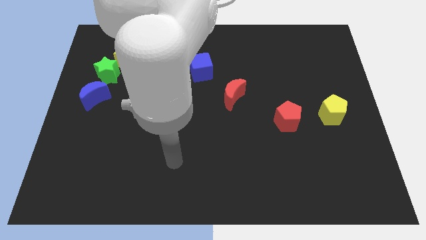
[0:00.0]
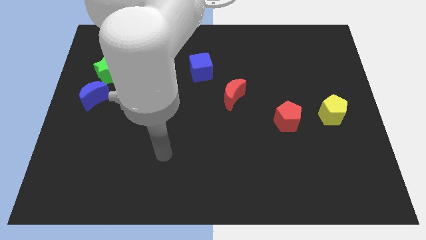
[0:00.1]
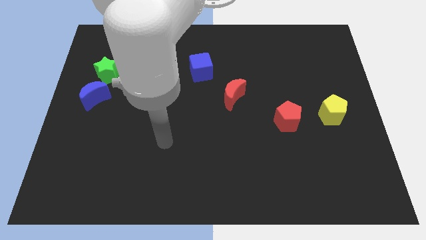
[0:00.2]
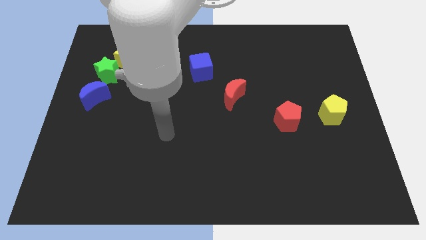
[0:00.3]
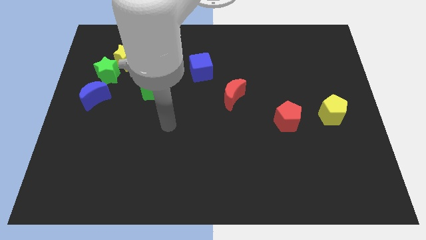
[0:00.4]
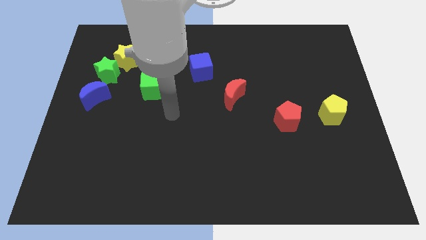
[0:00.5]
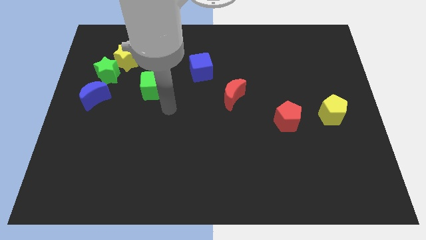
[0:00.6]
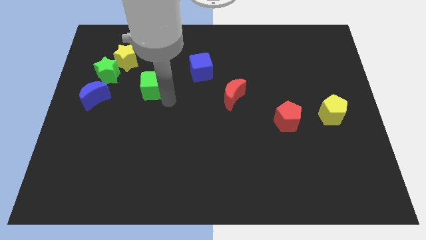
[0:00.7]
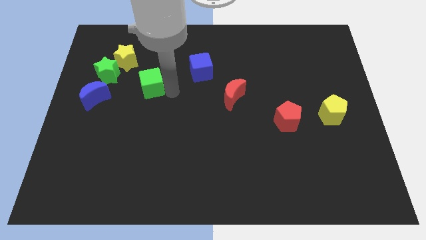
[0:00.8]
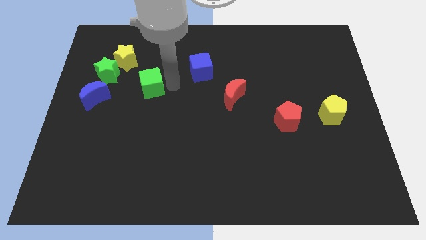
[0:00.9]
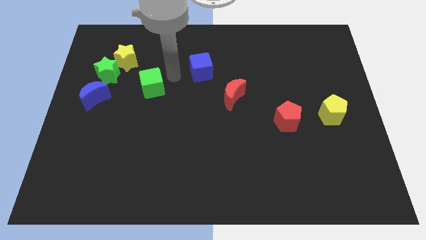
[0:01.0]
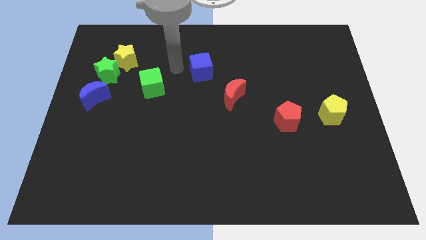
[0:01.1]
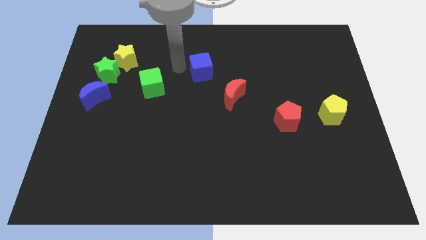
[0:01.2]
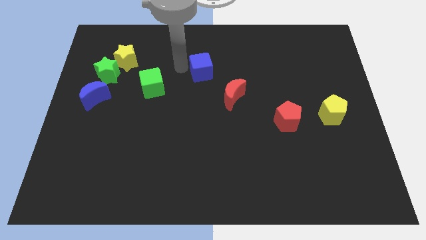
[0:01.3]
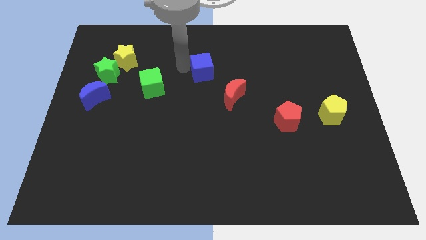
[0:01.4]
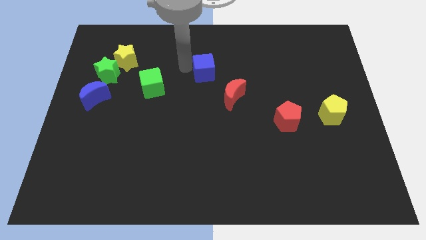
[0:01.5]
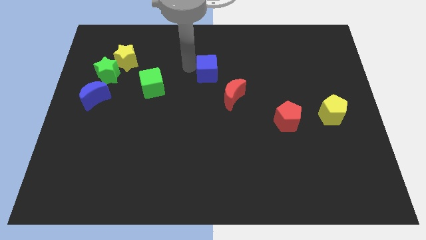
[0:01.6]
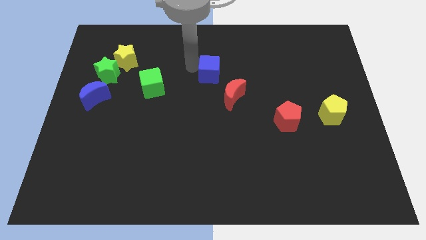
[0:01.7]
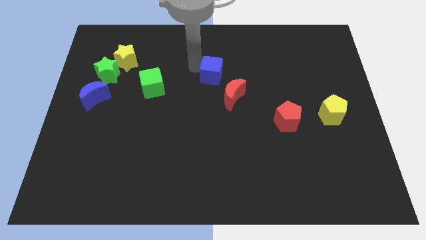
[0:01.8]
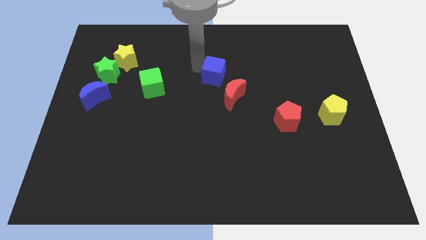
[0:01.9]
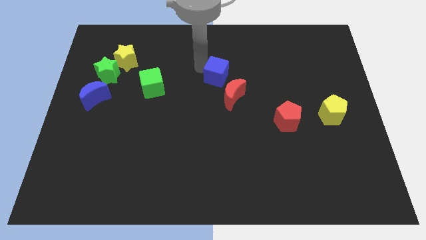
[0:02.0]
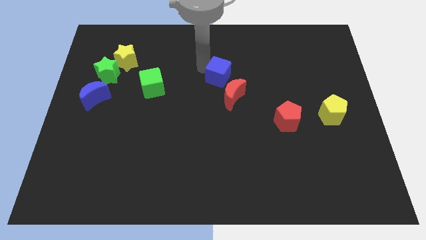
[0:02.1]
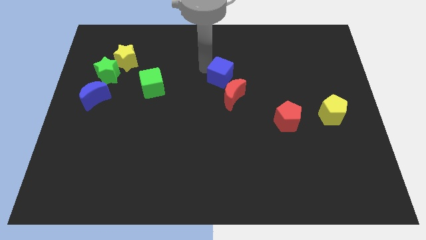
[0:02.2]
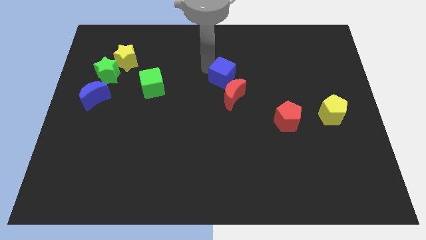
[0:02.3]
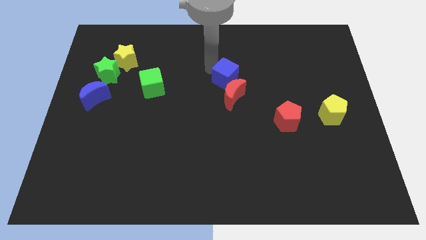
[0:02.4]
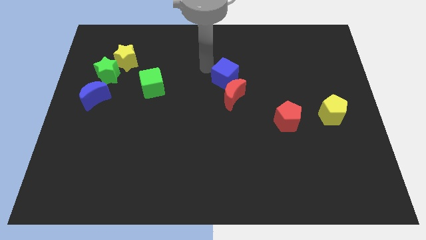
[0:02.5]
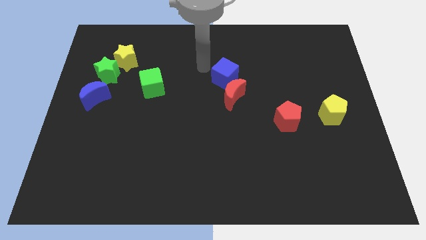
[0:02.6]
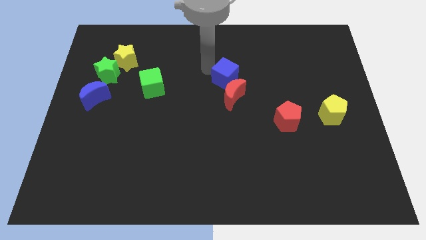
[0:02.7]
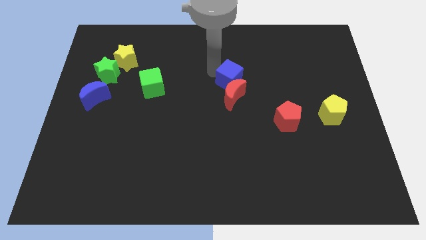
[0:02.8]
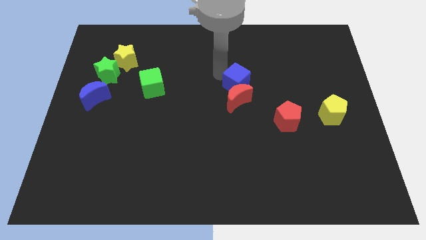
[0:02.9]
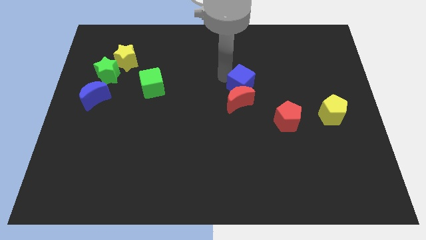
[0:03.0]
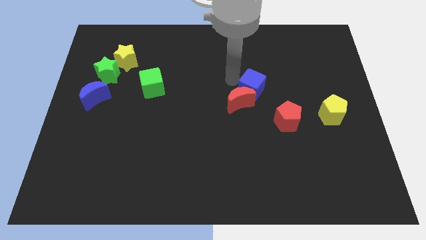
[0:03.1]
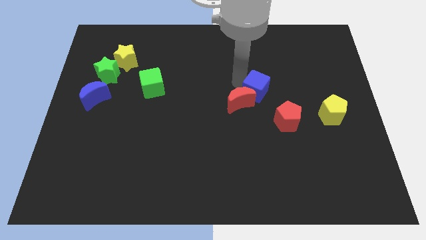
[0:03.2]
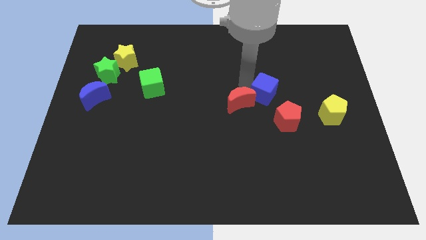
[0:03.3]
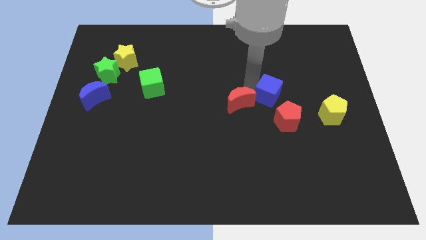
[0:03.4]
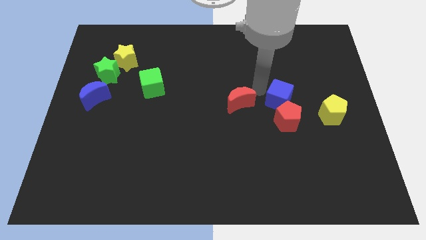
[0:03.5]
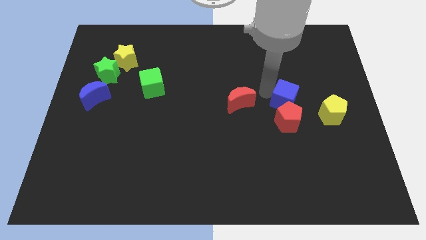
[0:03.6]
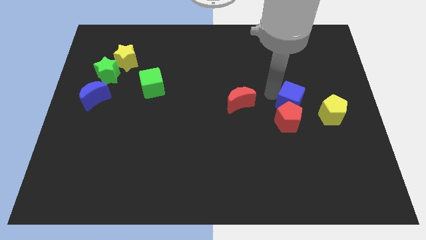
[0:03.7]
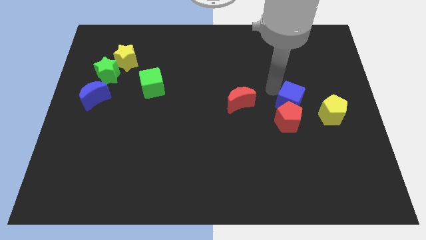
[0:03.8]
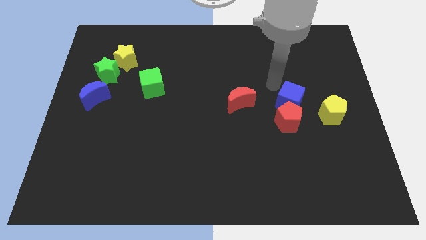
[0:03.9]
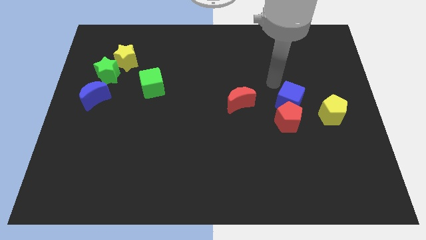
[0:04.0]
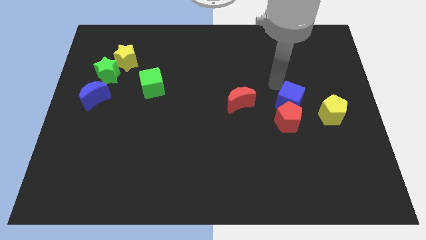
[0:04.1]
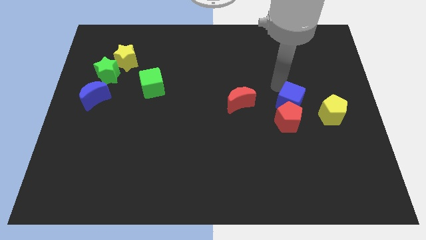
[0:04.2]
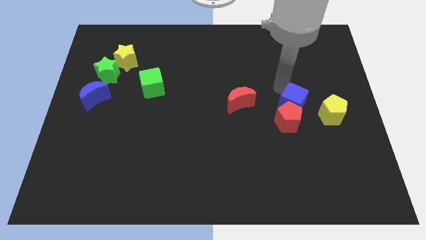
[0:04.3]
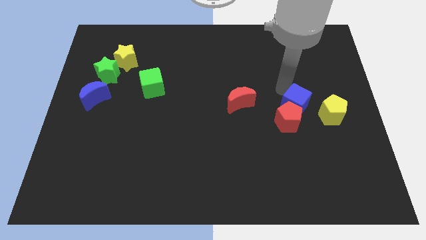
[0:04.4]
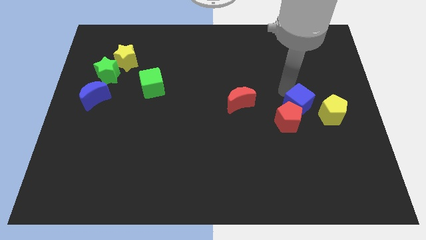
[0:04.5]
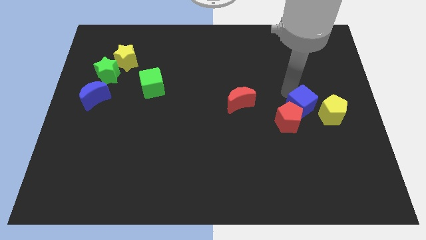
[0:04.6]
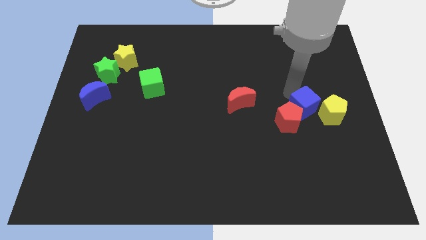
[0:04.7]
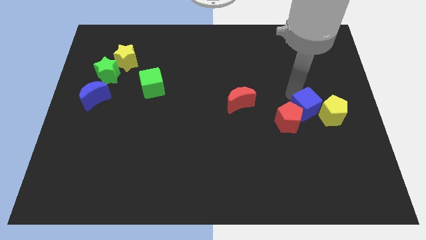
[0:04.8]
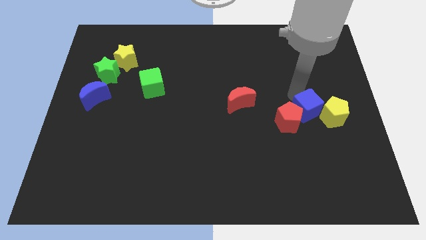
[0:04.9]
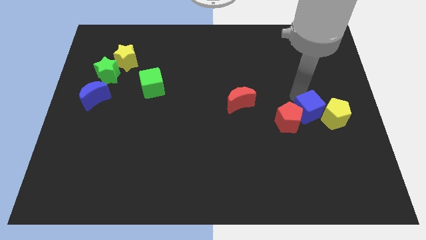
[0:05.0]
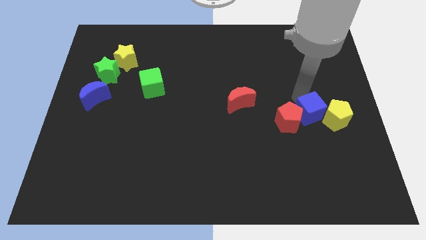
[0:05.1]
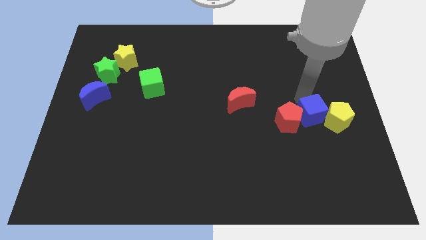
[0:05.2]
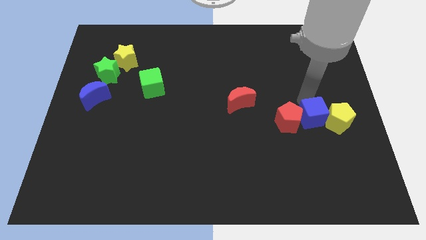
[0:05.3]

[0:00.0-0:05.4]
put the blue cube to the bottom right of the red pentagon

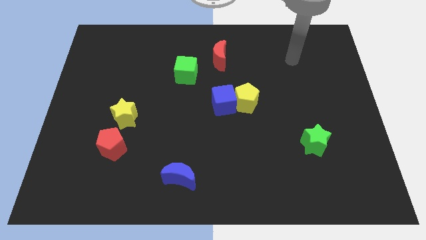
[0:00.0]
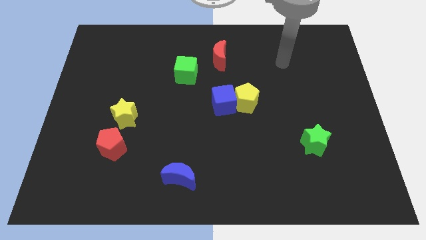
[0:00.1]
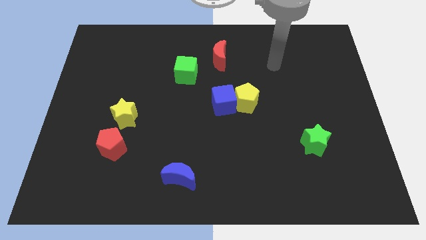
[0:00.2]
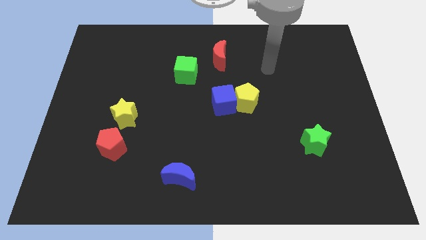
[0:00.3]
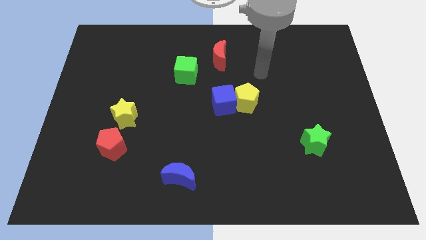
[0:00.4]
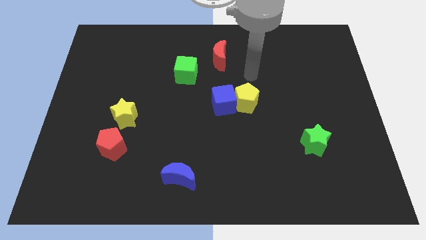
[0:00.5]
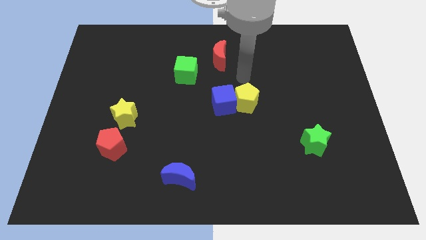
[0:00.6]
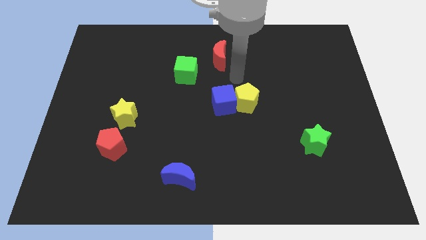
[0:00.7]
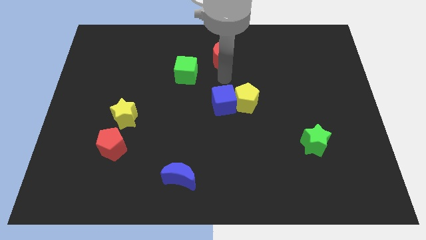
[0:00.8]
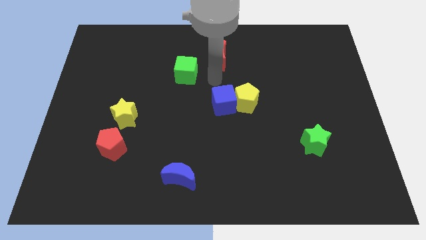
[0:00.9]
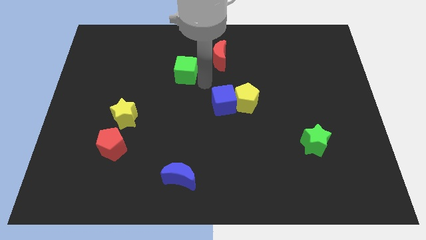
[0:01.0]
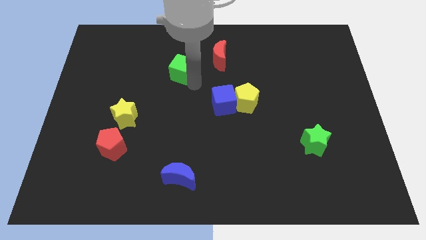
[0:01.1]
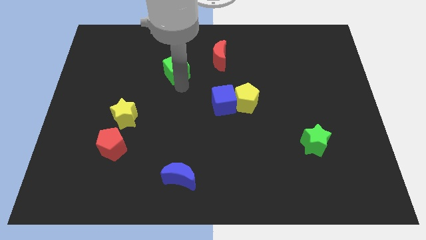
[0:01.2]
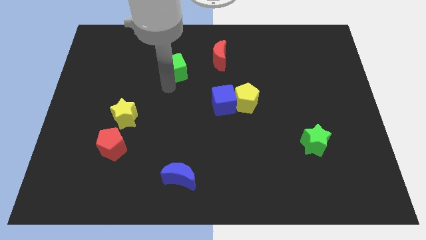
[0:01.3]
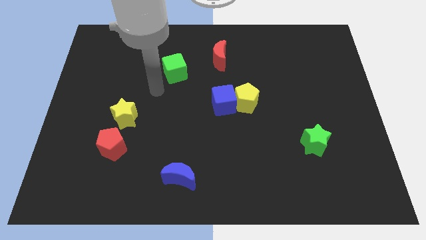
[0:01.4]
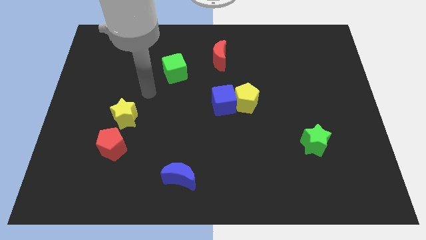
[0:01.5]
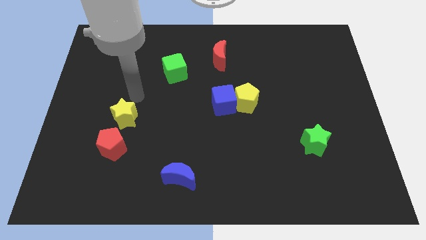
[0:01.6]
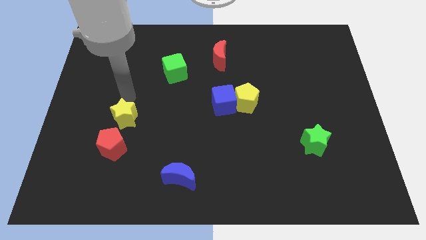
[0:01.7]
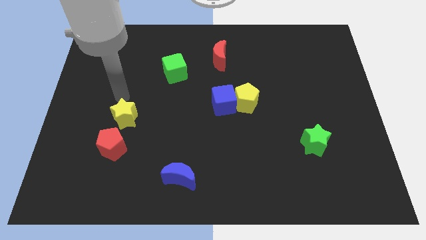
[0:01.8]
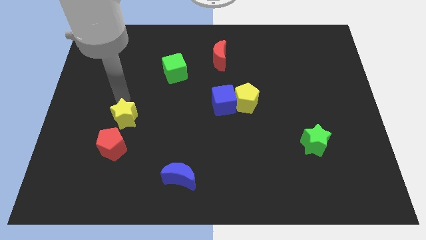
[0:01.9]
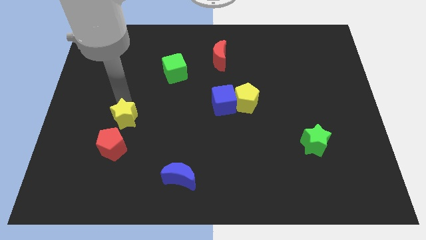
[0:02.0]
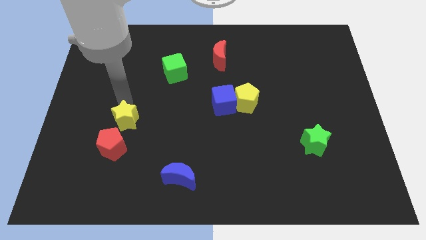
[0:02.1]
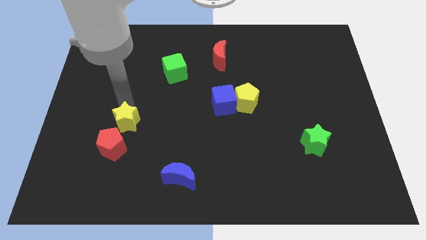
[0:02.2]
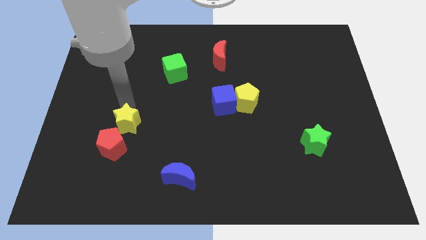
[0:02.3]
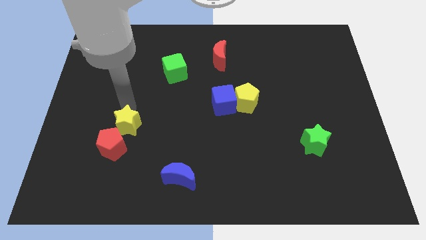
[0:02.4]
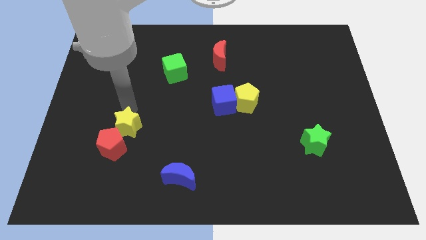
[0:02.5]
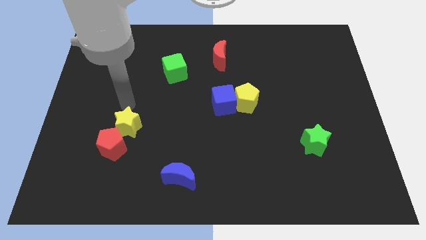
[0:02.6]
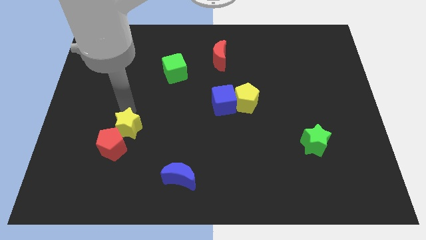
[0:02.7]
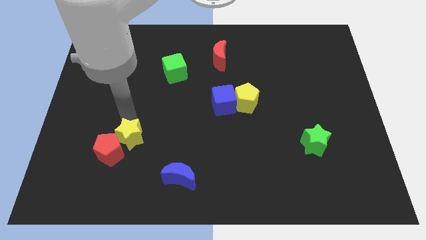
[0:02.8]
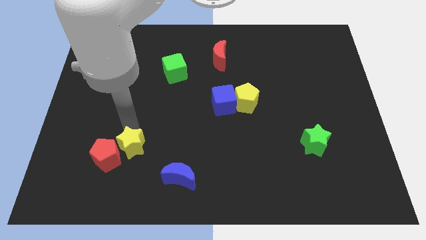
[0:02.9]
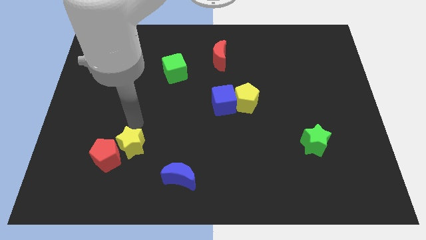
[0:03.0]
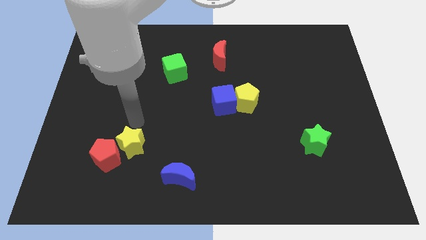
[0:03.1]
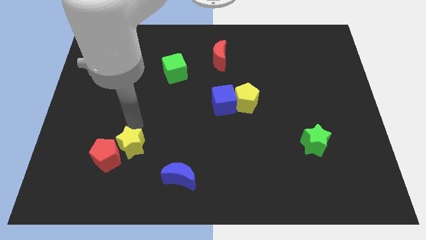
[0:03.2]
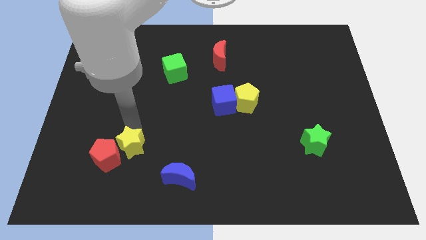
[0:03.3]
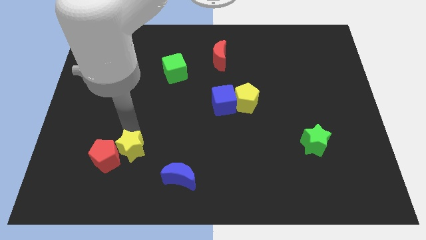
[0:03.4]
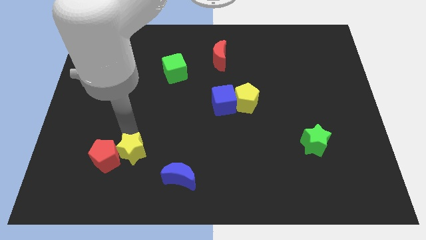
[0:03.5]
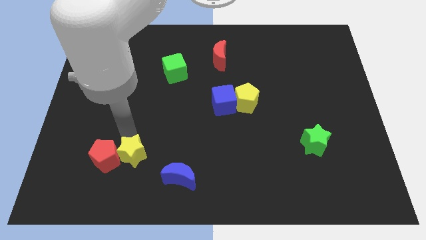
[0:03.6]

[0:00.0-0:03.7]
move the yellow star diagonally down and to the right of the red pentagon
